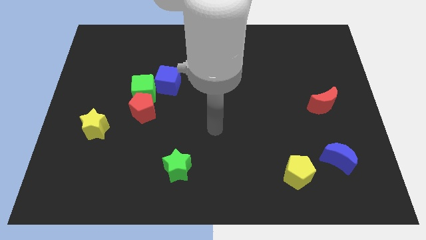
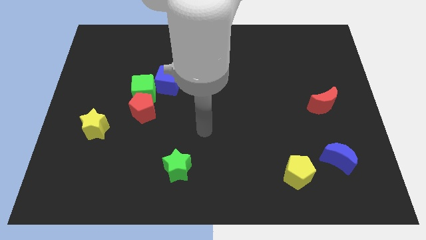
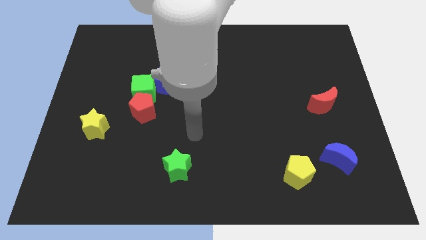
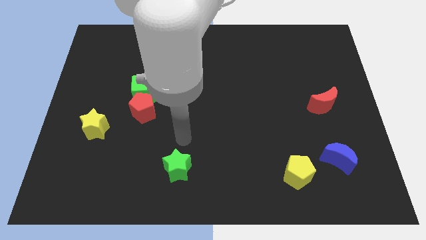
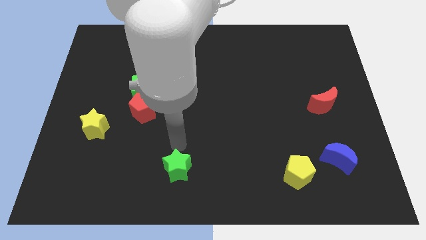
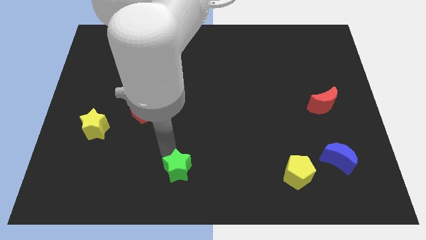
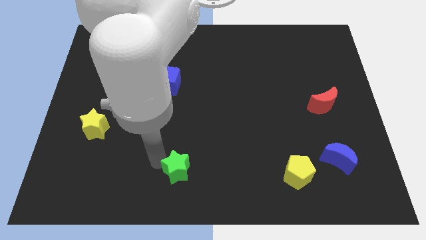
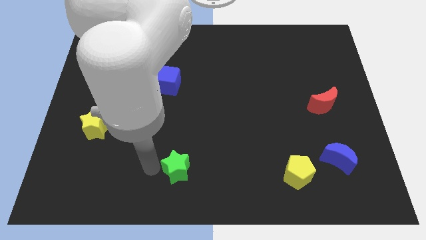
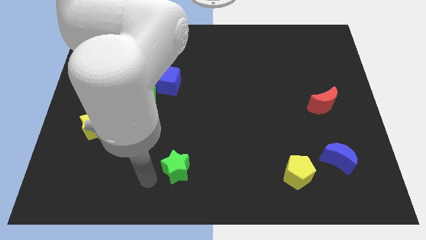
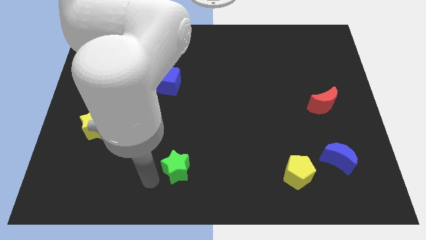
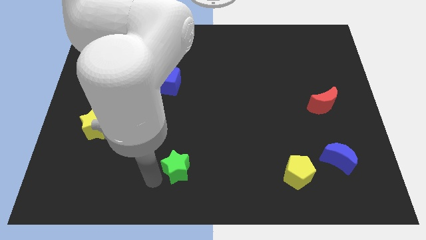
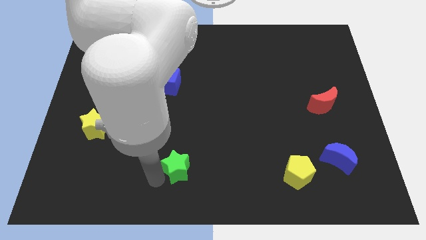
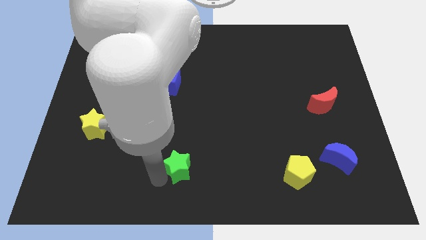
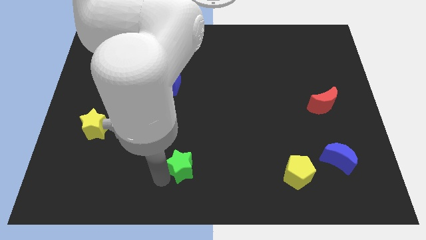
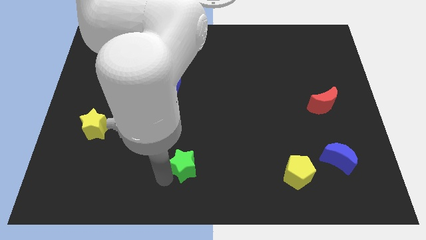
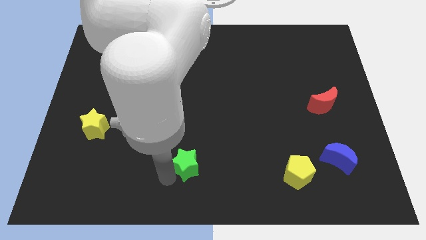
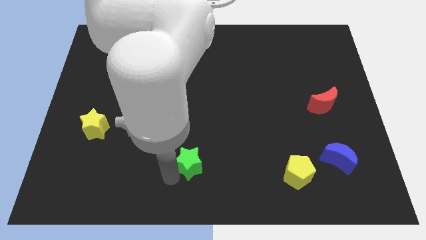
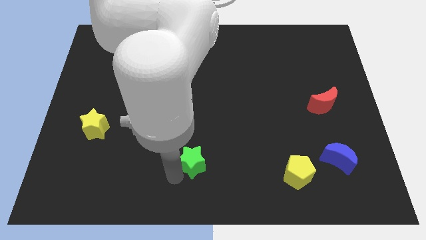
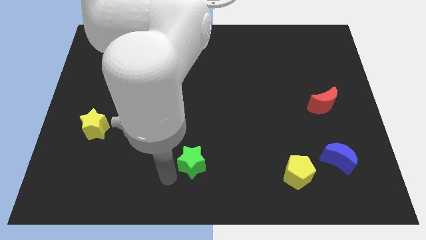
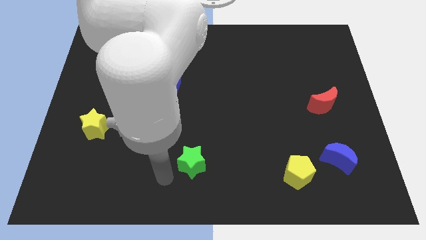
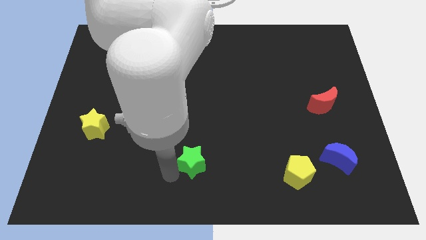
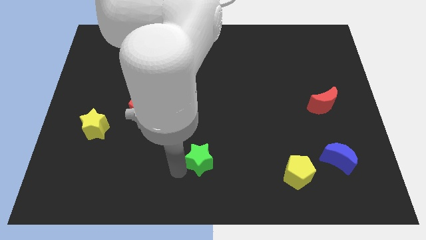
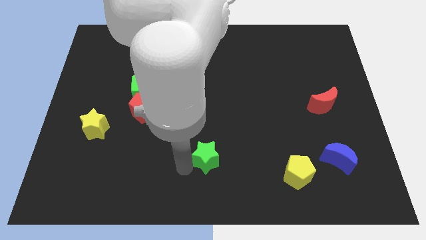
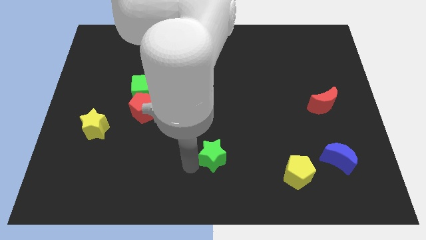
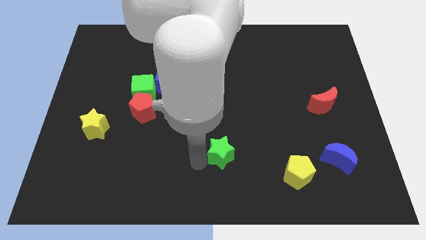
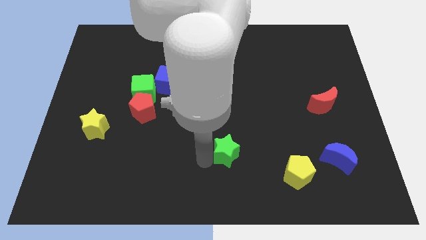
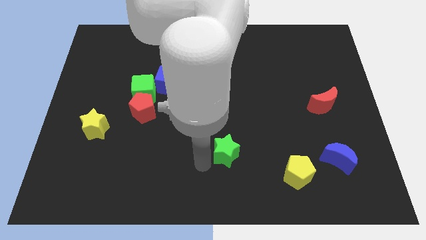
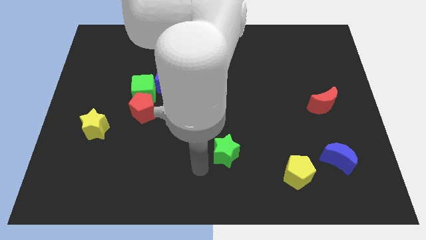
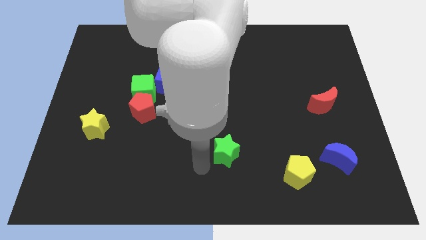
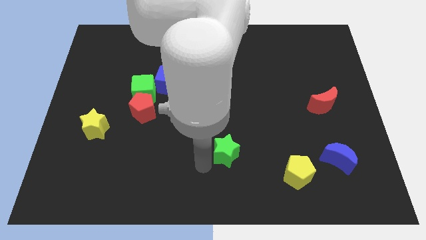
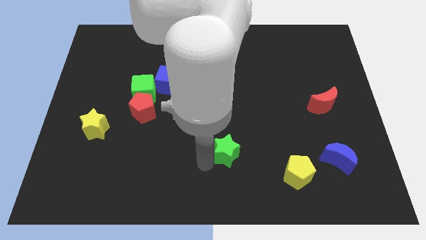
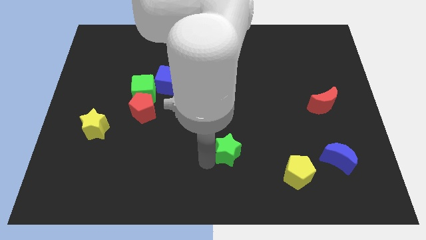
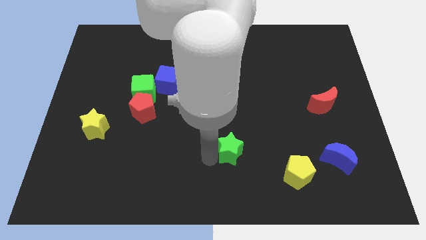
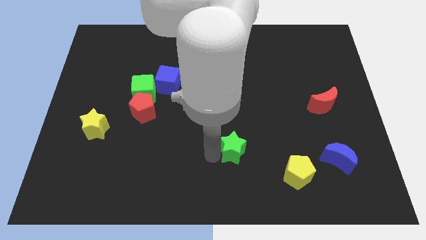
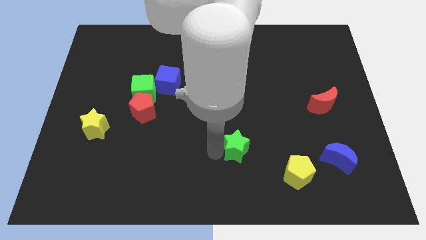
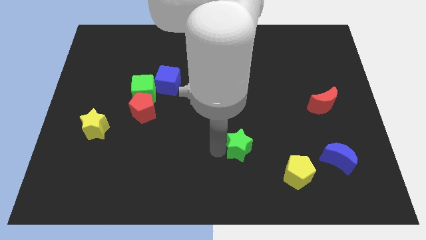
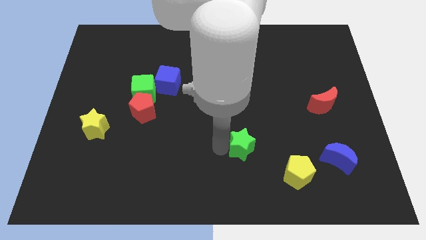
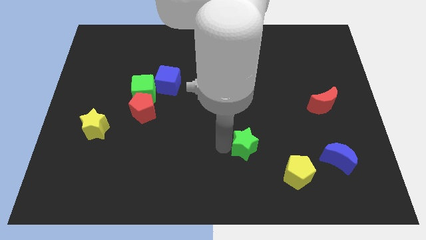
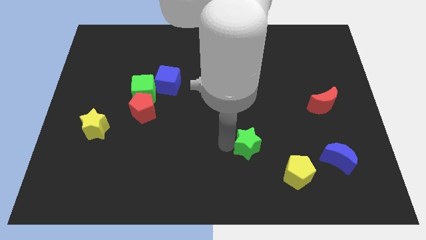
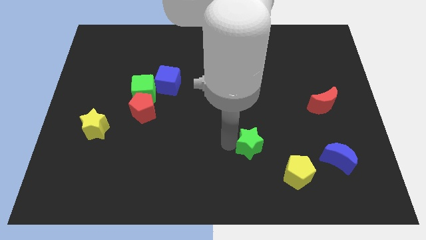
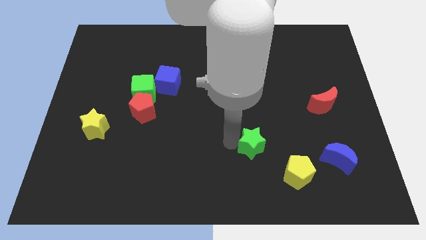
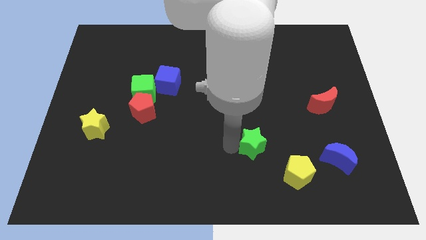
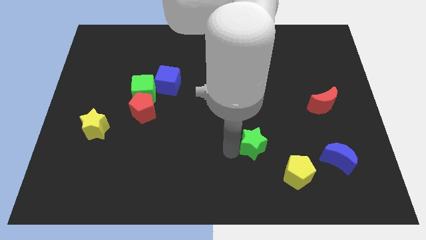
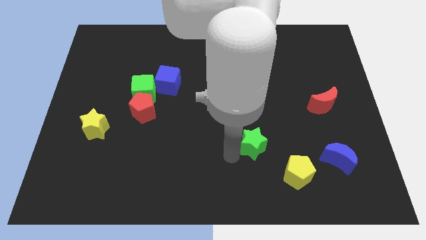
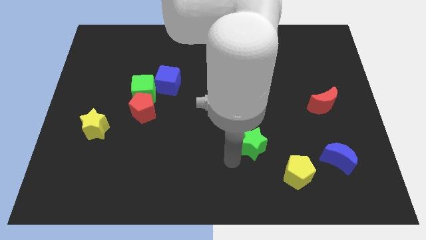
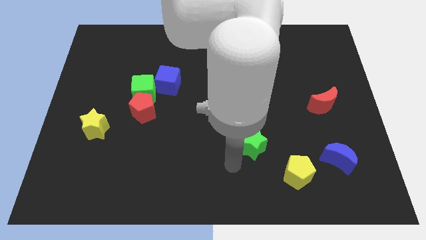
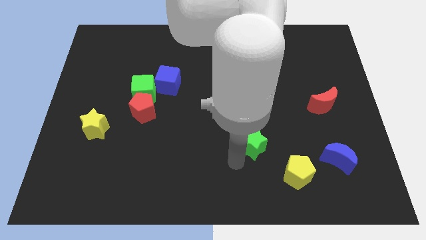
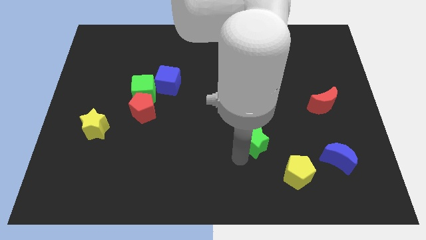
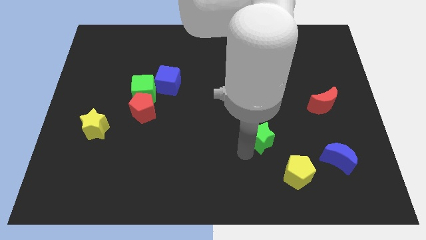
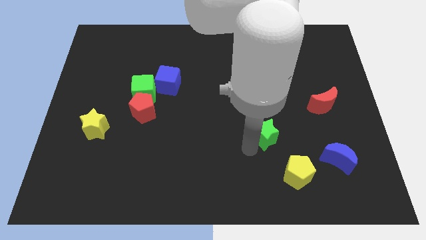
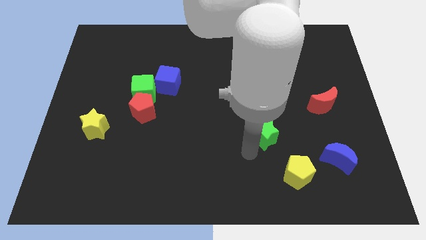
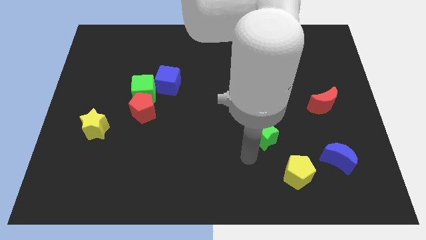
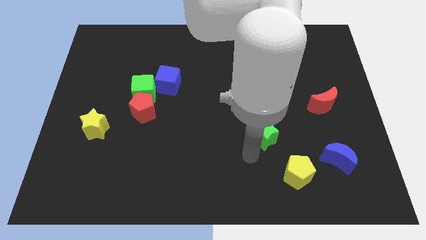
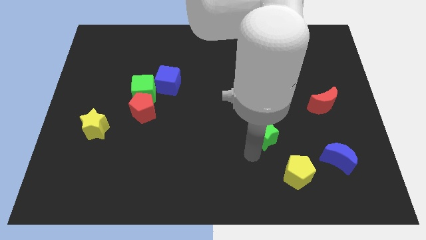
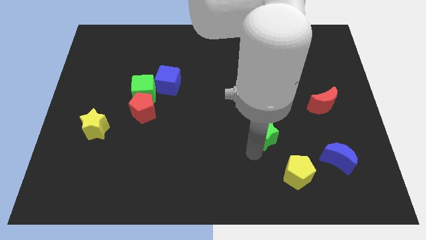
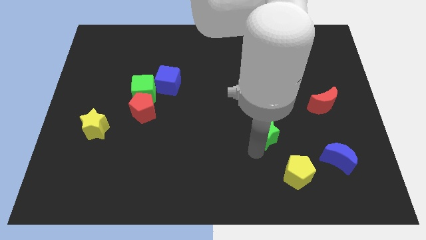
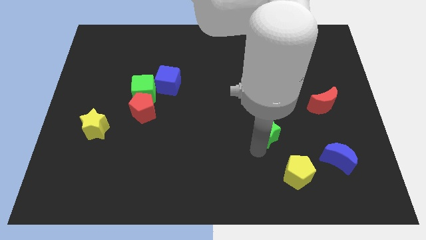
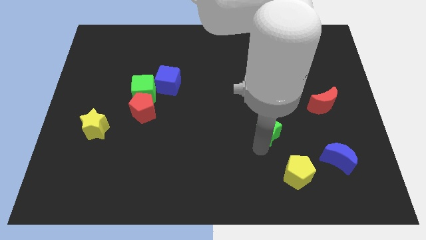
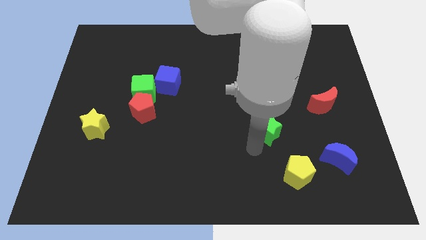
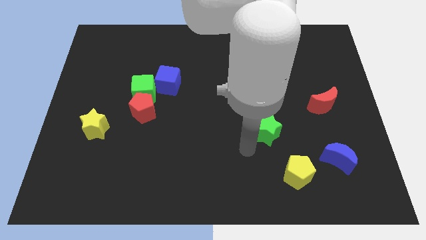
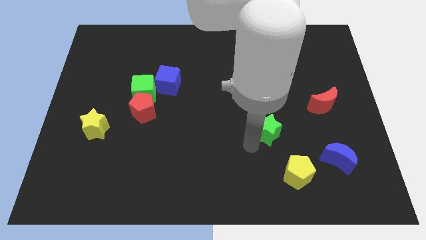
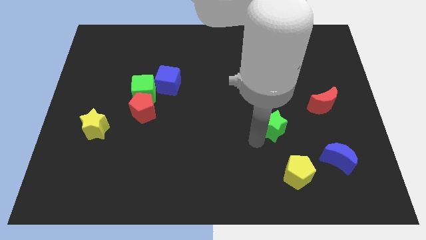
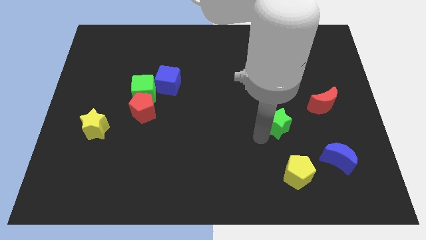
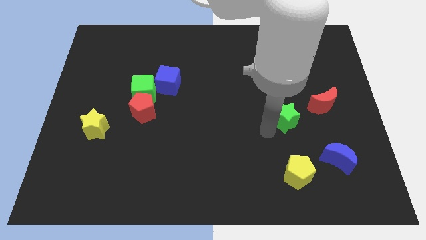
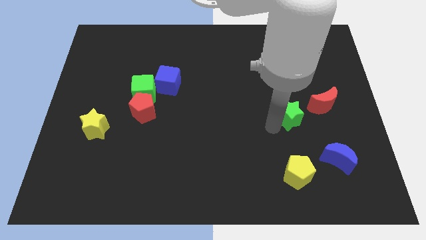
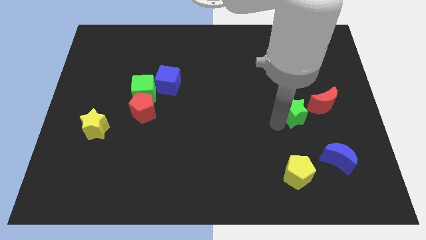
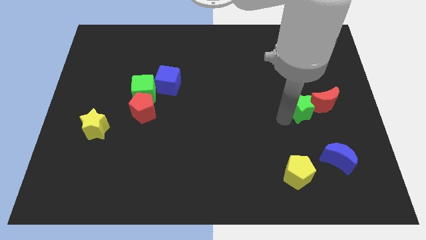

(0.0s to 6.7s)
put the green star to the red moon

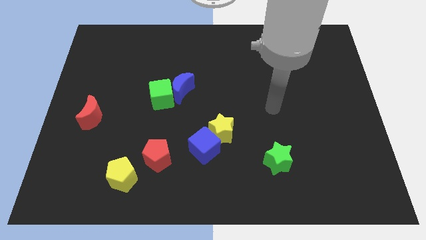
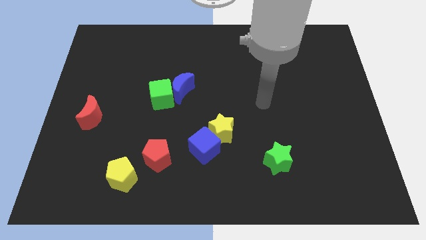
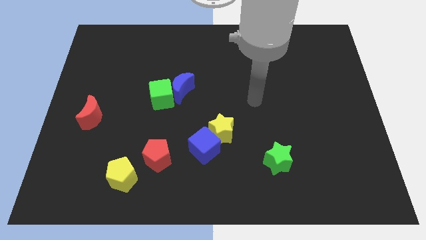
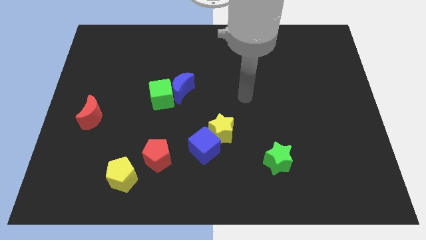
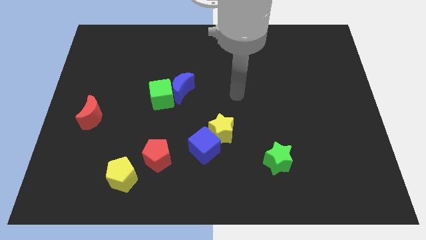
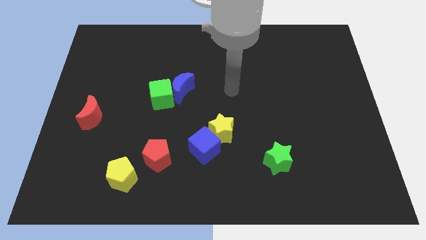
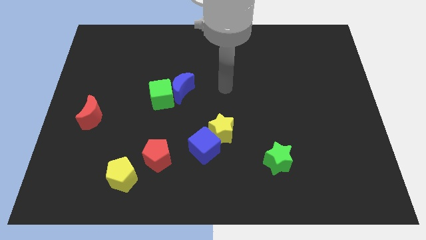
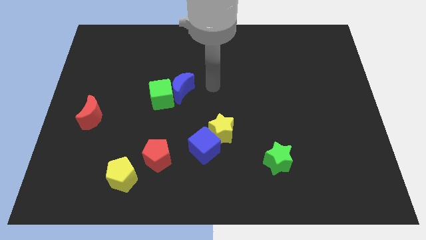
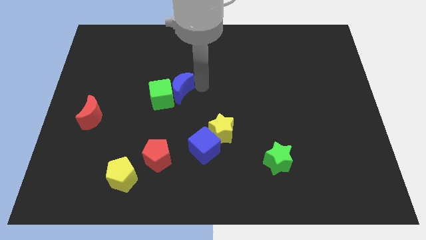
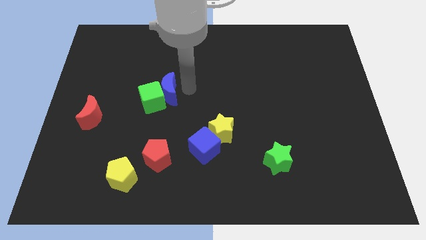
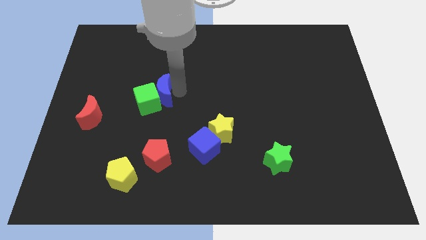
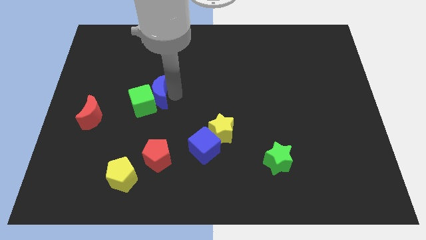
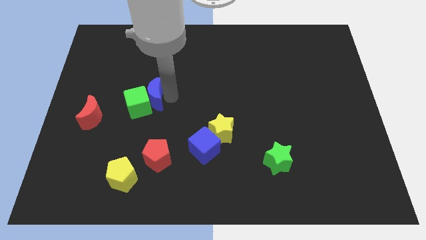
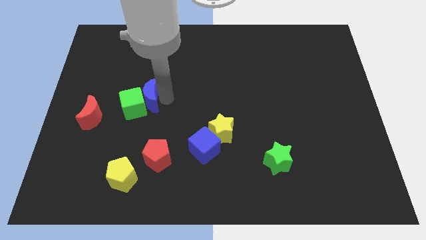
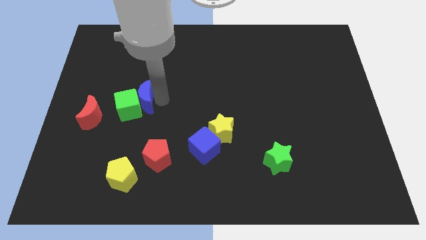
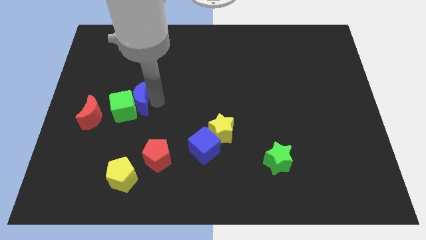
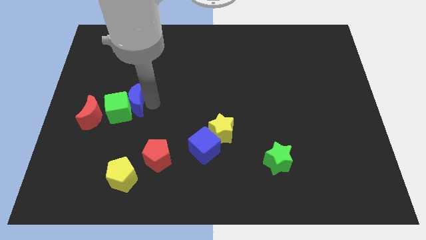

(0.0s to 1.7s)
slide the green cube towards the red moon
